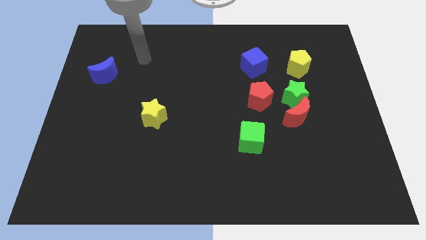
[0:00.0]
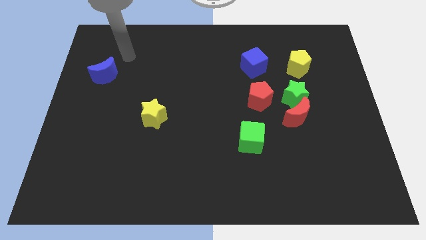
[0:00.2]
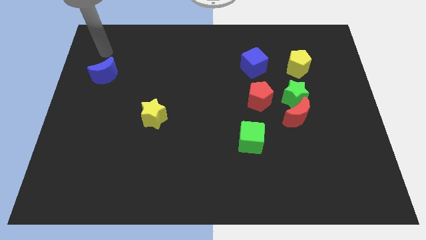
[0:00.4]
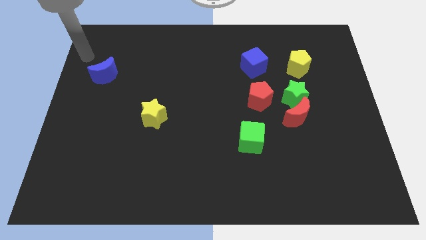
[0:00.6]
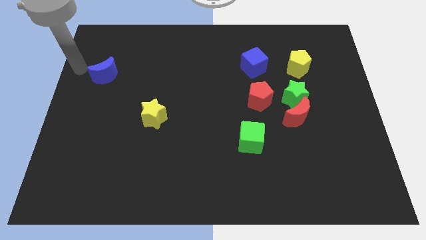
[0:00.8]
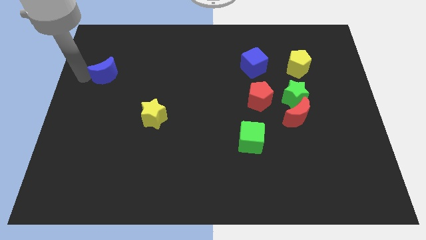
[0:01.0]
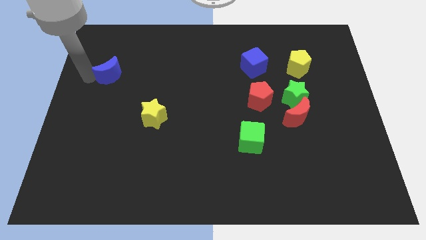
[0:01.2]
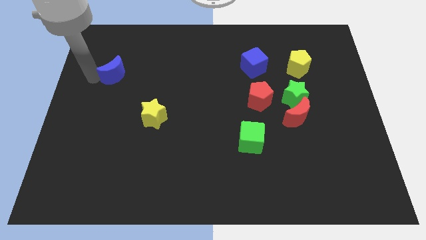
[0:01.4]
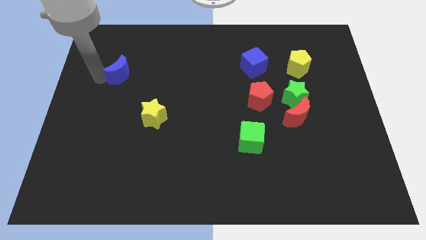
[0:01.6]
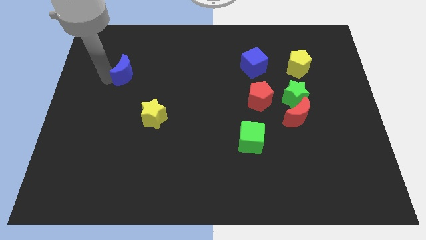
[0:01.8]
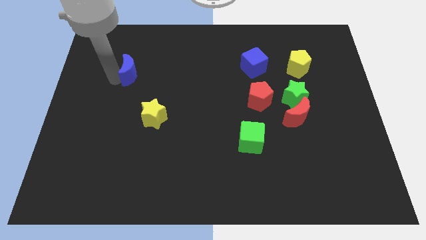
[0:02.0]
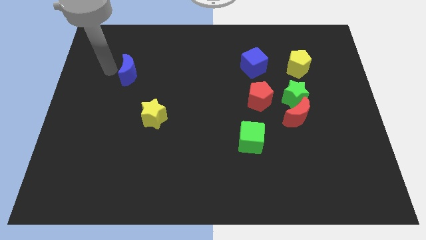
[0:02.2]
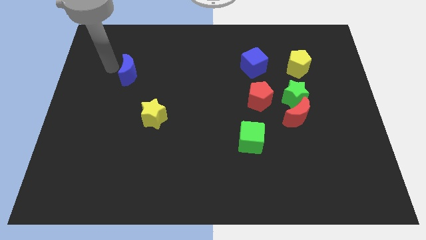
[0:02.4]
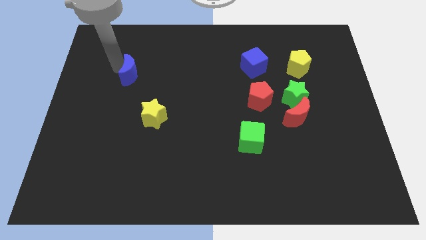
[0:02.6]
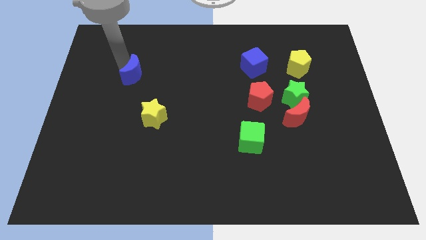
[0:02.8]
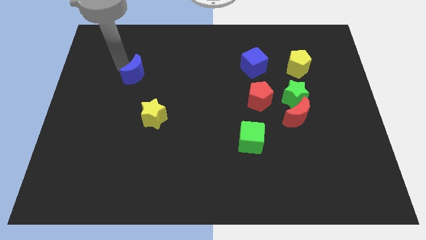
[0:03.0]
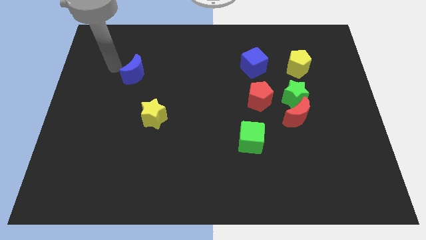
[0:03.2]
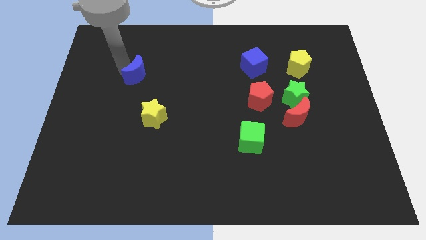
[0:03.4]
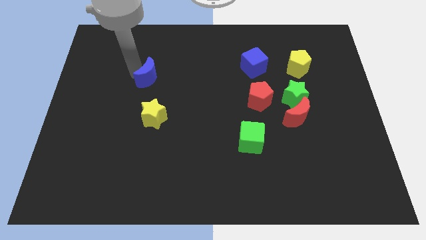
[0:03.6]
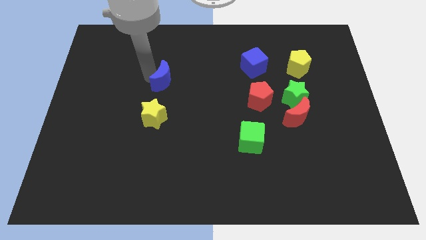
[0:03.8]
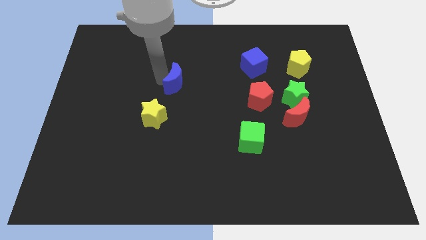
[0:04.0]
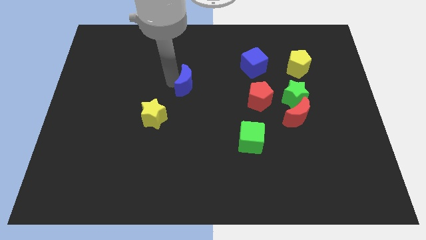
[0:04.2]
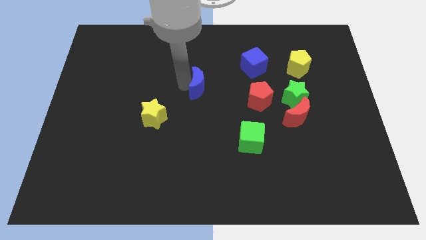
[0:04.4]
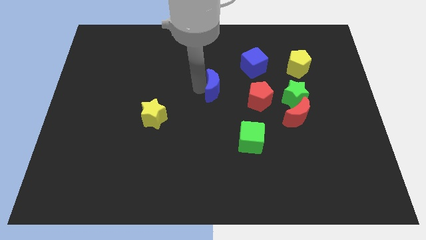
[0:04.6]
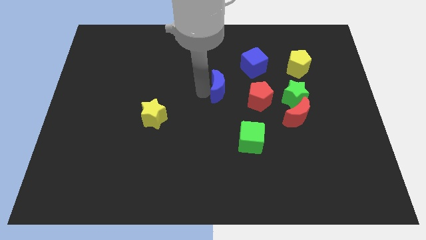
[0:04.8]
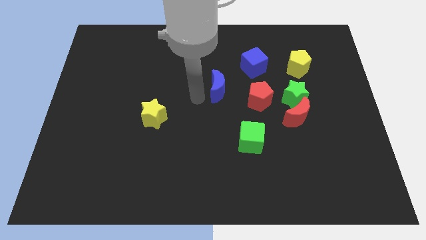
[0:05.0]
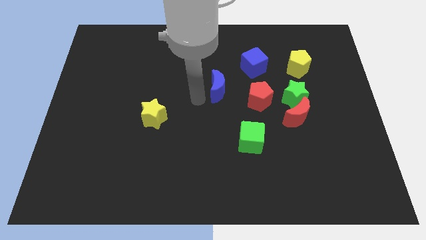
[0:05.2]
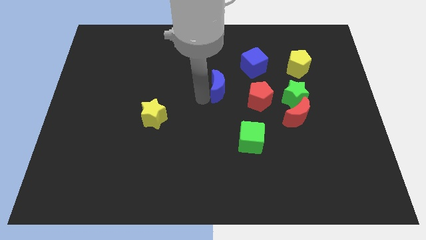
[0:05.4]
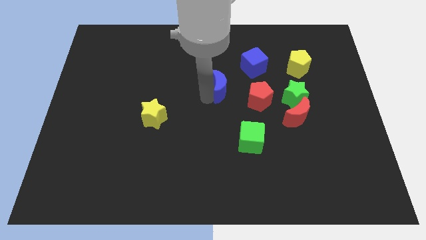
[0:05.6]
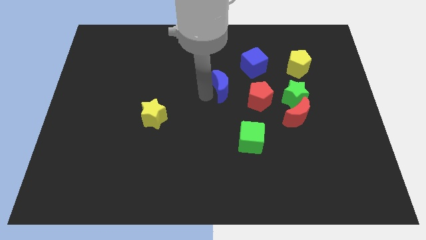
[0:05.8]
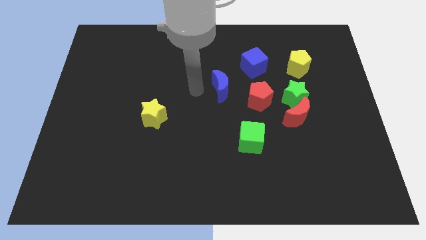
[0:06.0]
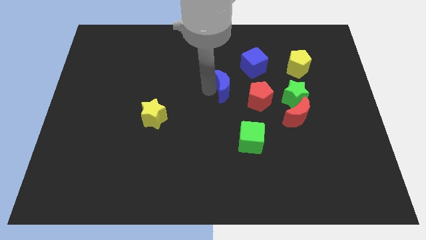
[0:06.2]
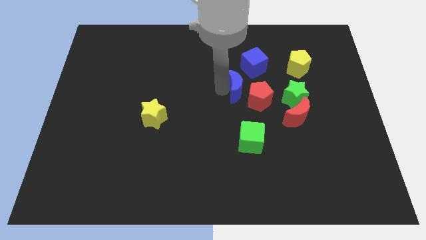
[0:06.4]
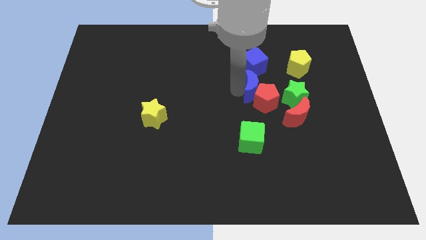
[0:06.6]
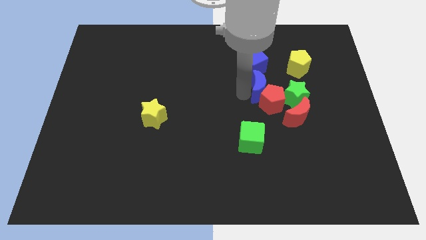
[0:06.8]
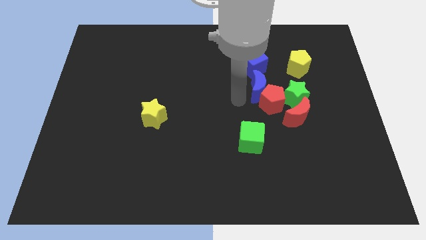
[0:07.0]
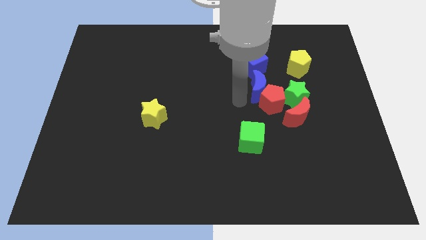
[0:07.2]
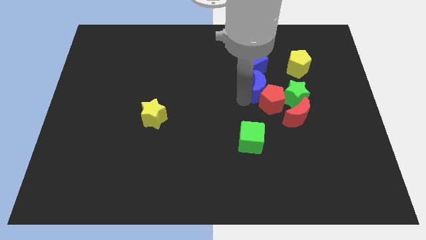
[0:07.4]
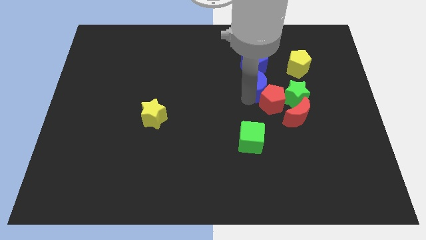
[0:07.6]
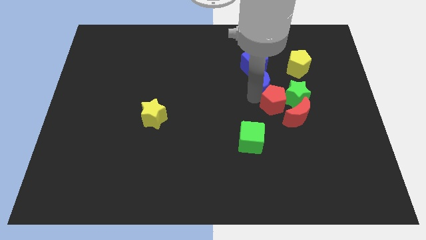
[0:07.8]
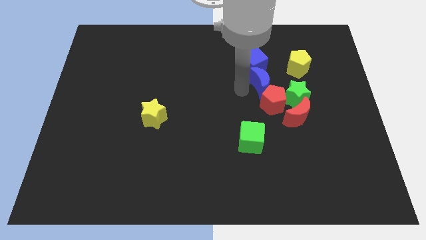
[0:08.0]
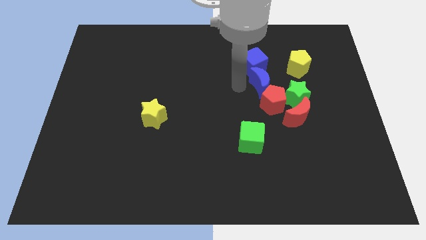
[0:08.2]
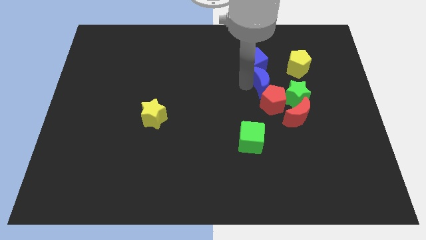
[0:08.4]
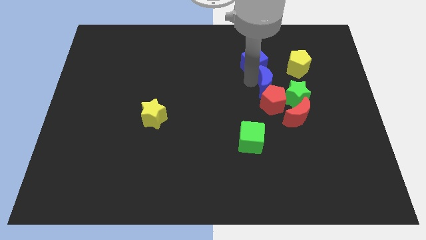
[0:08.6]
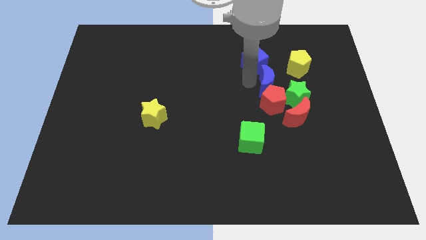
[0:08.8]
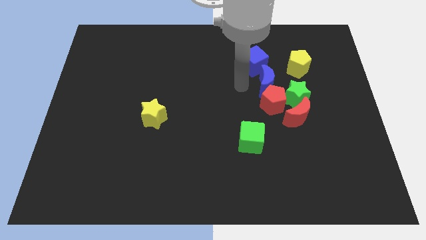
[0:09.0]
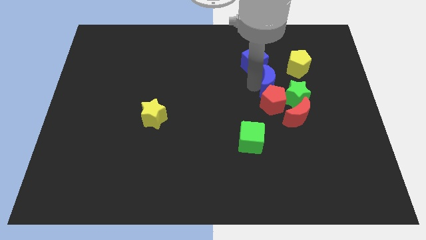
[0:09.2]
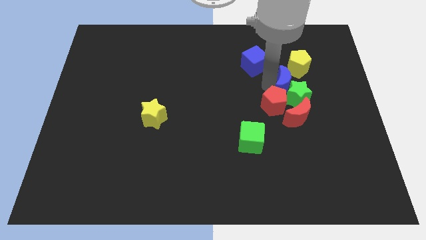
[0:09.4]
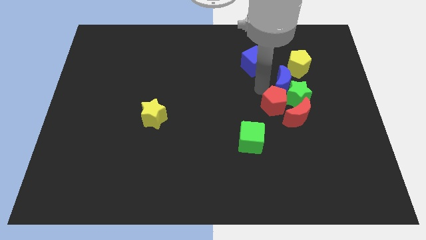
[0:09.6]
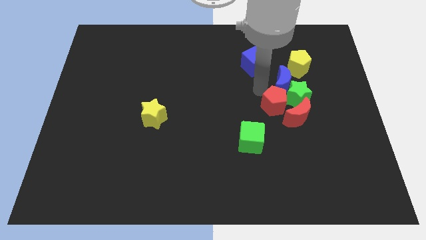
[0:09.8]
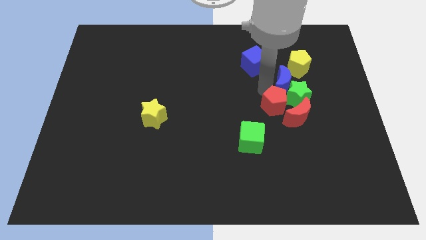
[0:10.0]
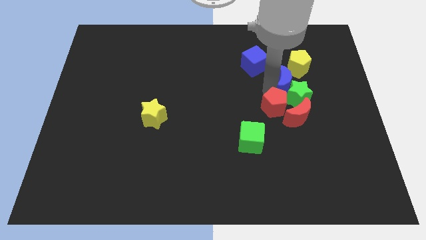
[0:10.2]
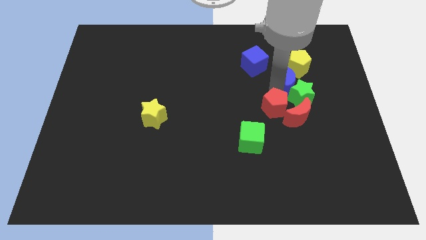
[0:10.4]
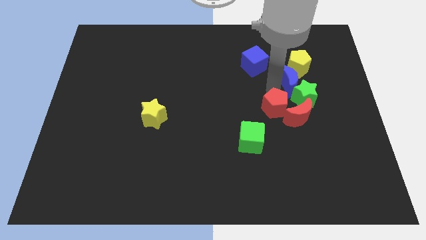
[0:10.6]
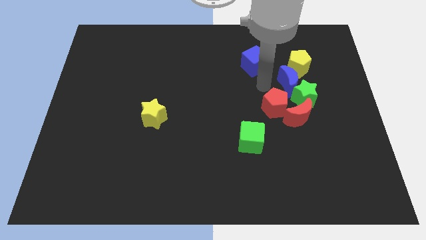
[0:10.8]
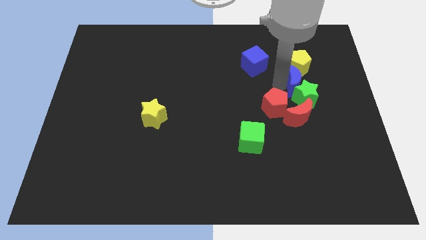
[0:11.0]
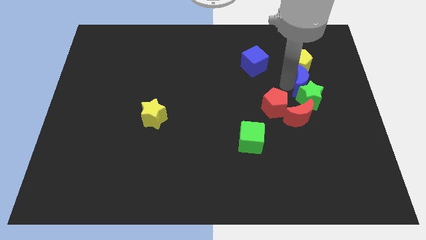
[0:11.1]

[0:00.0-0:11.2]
put the blue moon diagonally up and to the right of the green star

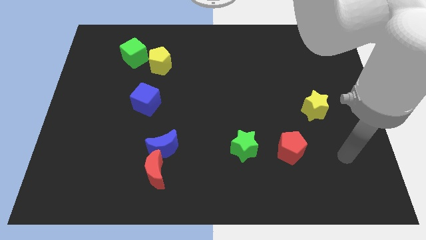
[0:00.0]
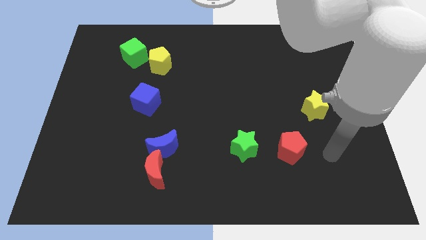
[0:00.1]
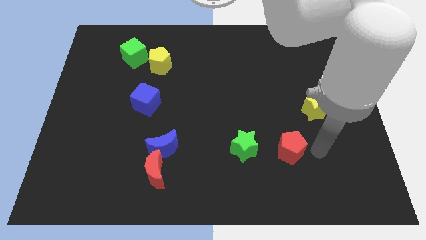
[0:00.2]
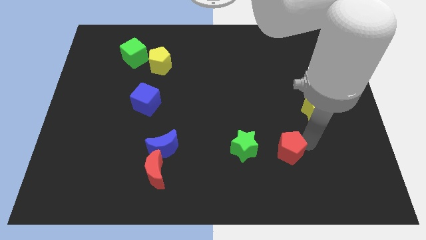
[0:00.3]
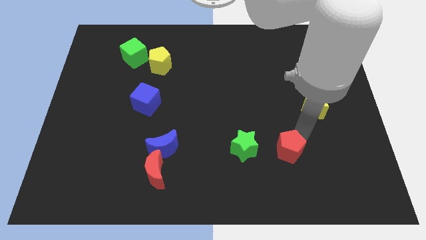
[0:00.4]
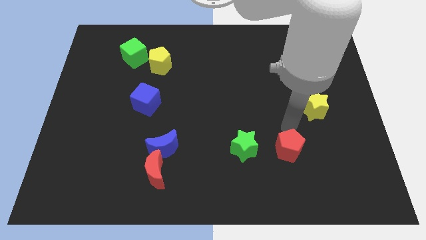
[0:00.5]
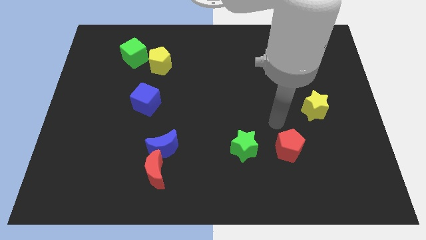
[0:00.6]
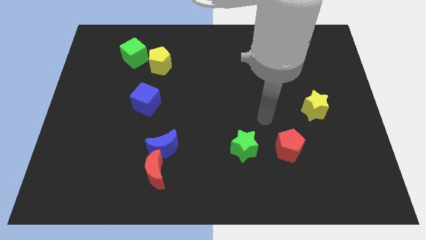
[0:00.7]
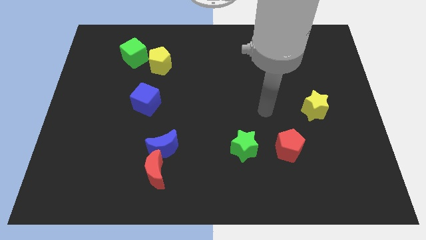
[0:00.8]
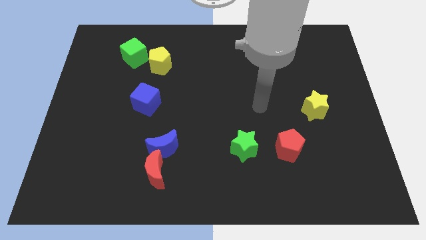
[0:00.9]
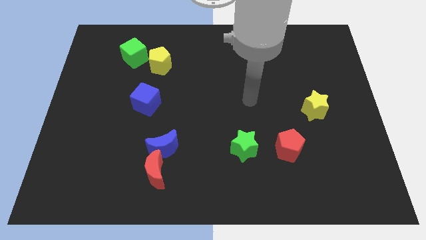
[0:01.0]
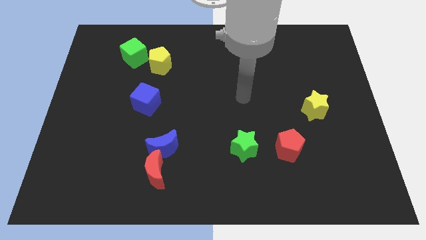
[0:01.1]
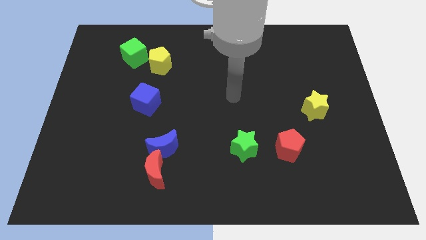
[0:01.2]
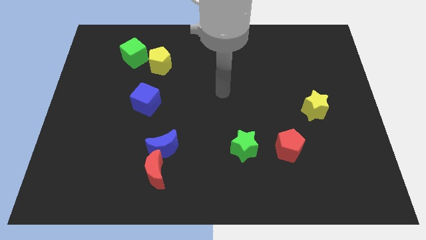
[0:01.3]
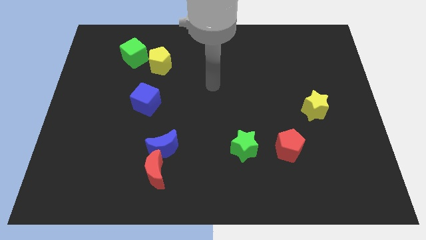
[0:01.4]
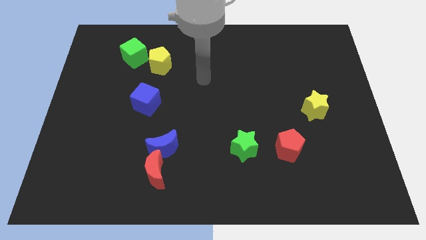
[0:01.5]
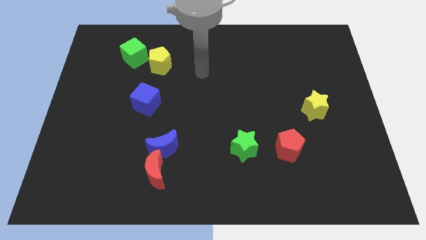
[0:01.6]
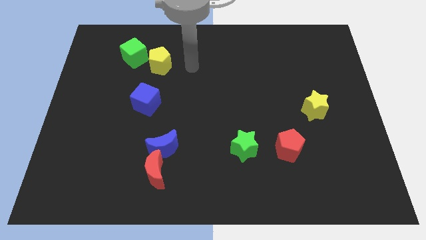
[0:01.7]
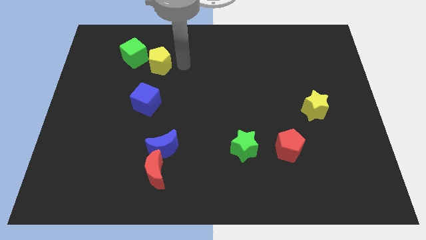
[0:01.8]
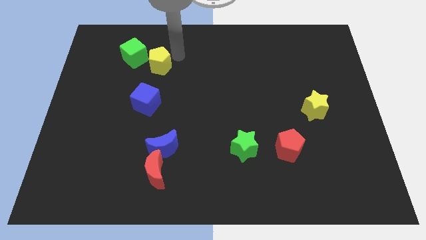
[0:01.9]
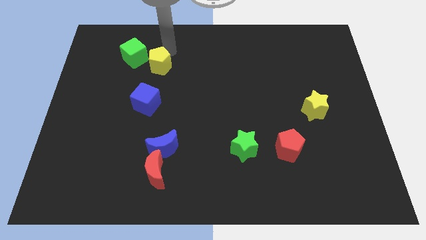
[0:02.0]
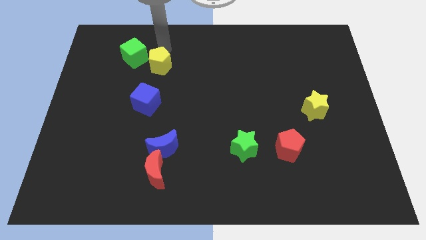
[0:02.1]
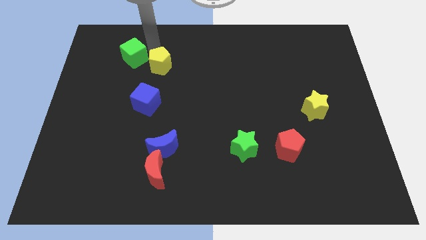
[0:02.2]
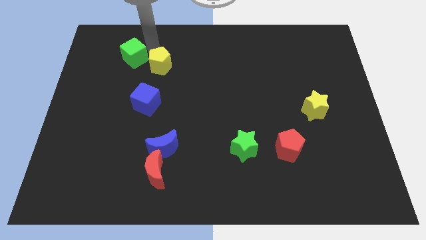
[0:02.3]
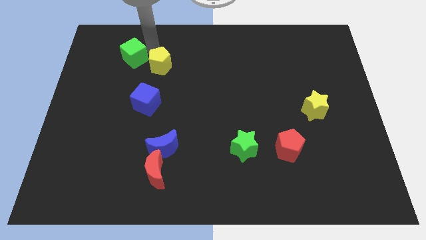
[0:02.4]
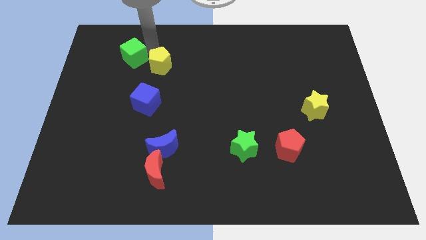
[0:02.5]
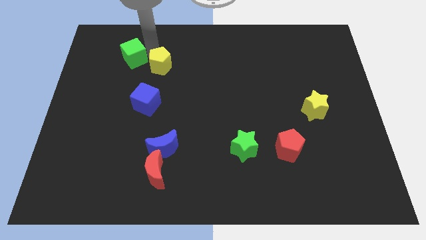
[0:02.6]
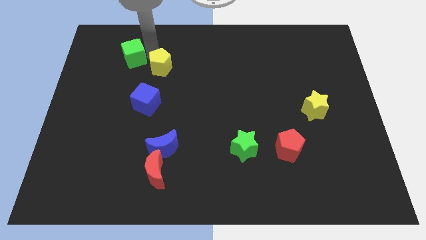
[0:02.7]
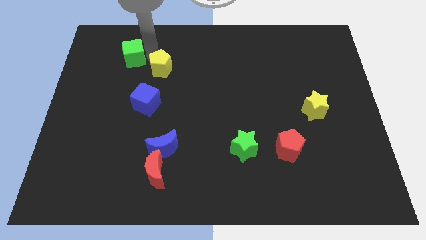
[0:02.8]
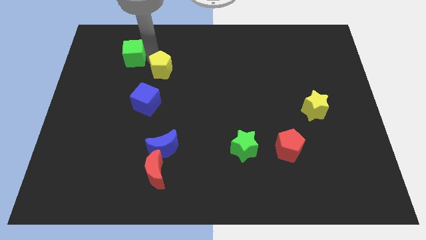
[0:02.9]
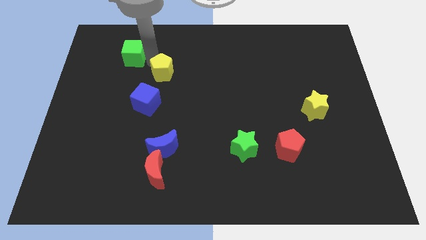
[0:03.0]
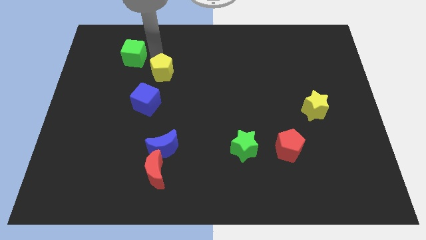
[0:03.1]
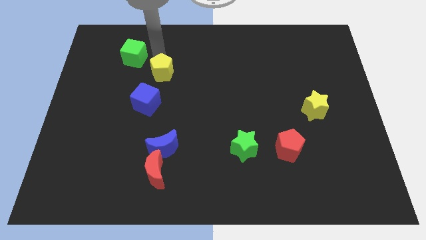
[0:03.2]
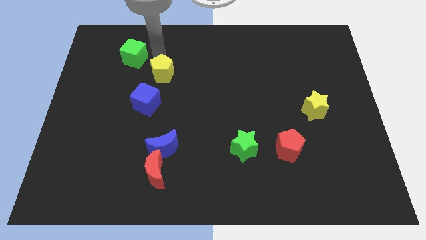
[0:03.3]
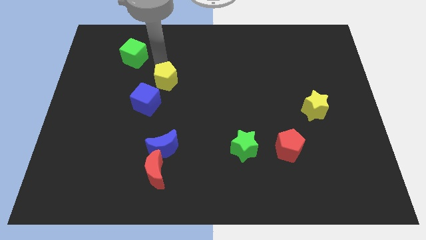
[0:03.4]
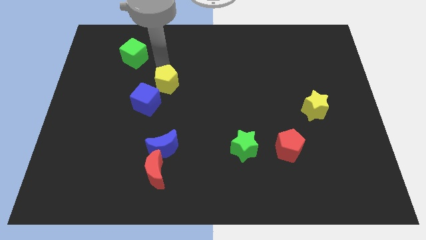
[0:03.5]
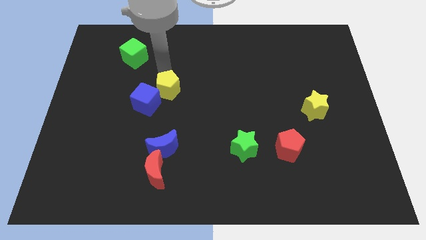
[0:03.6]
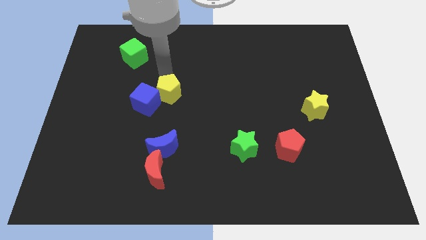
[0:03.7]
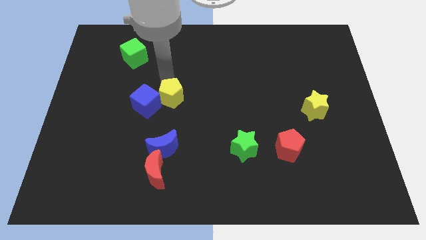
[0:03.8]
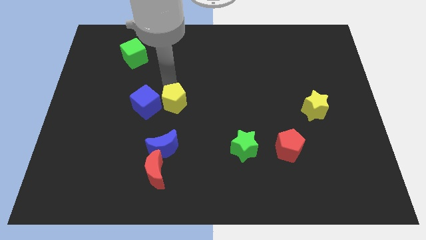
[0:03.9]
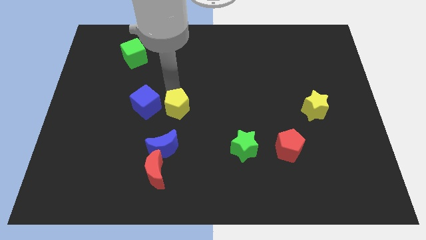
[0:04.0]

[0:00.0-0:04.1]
move the yellow pentagon to the bottom right side of the blue cube
